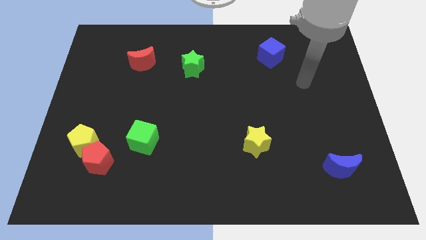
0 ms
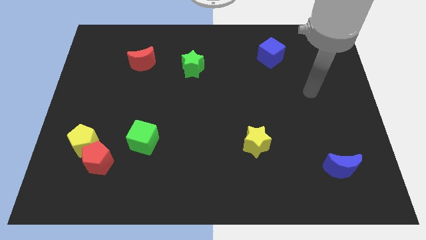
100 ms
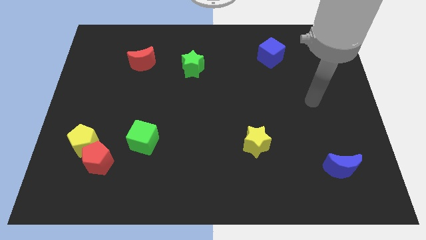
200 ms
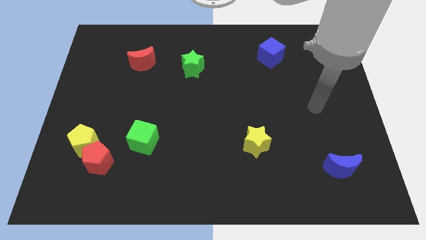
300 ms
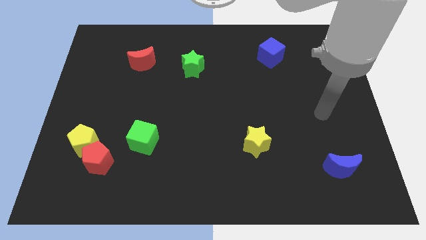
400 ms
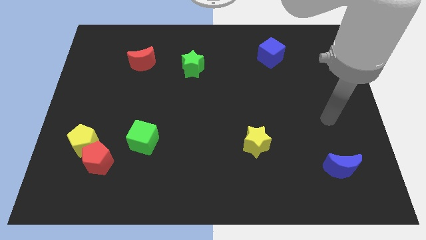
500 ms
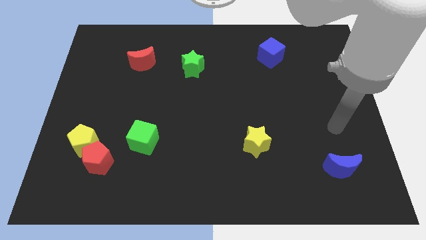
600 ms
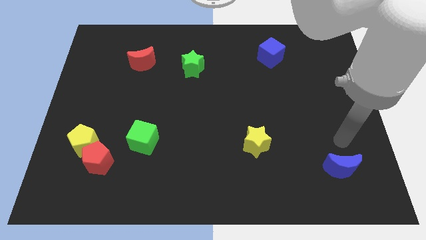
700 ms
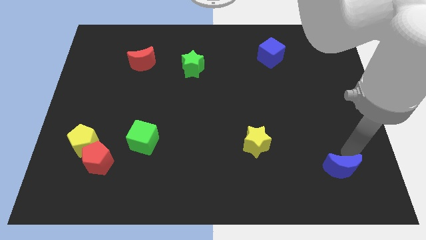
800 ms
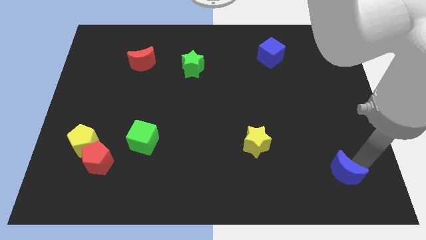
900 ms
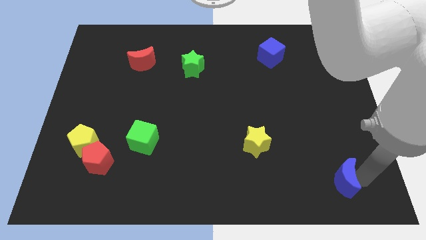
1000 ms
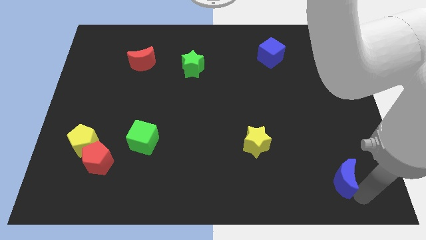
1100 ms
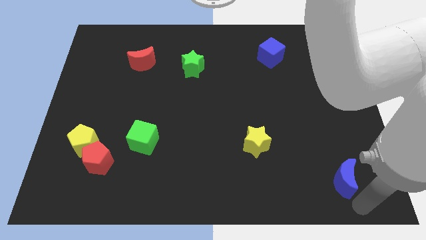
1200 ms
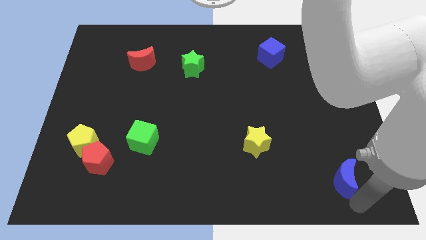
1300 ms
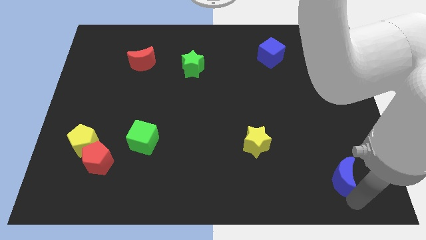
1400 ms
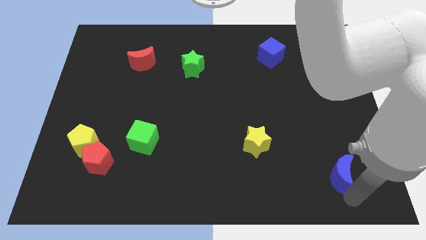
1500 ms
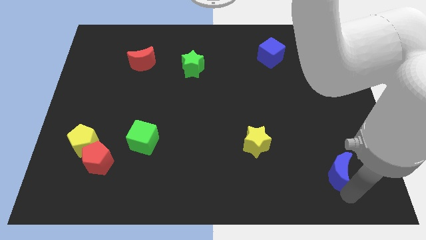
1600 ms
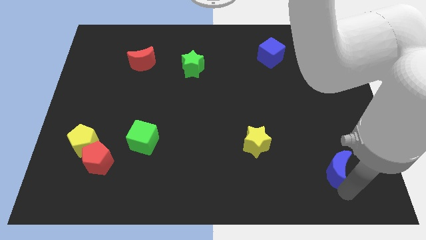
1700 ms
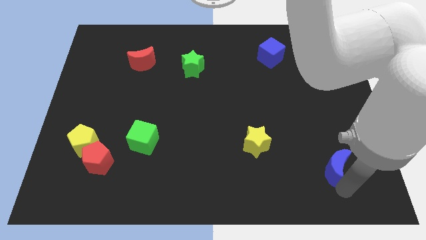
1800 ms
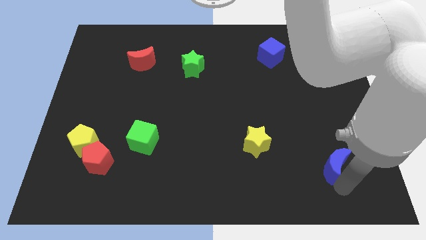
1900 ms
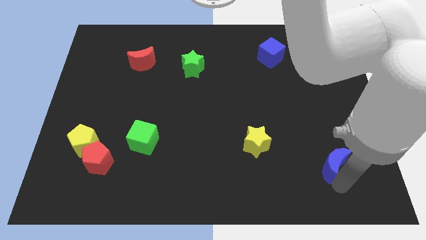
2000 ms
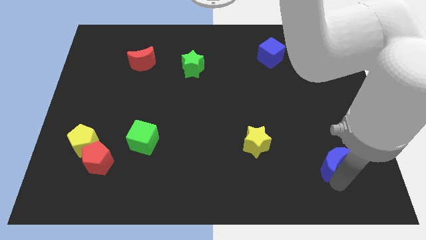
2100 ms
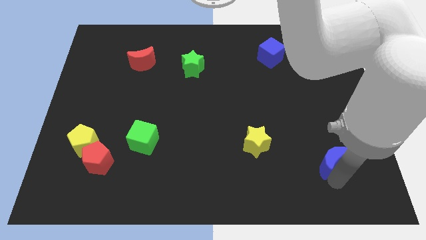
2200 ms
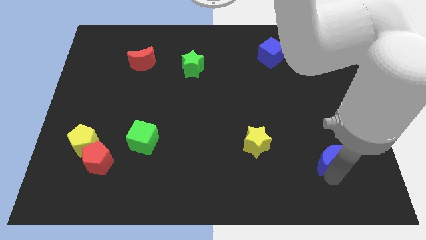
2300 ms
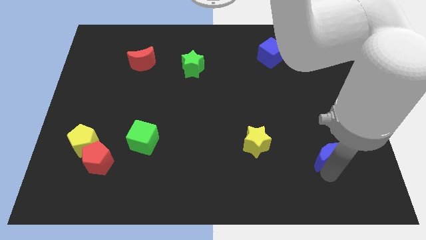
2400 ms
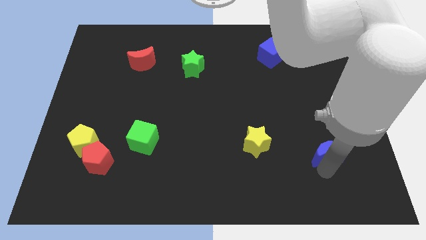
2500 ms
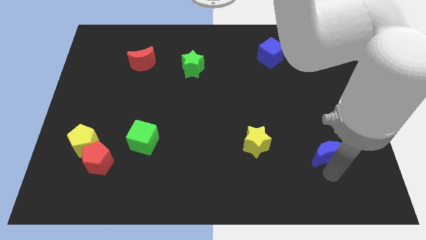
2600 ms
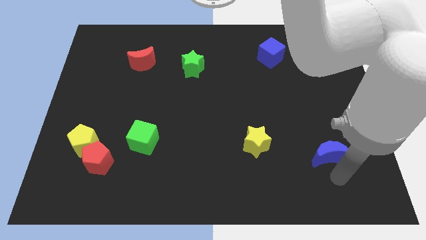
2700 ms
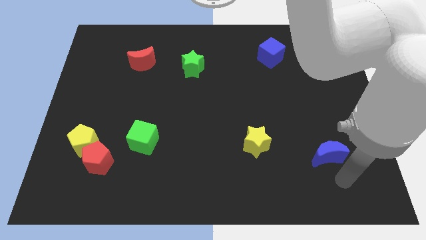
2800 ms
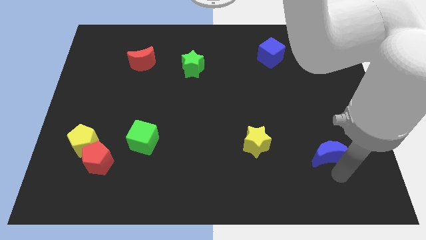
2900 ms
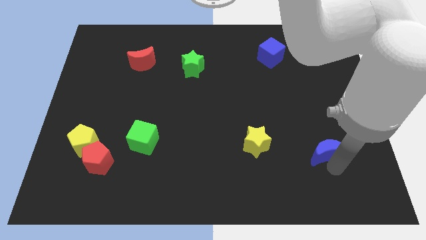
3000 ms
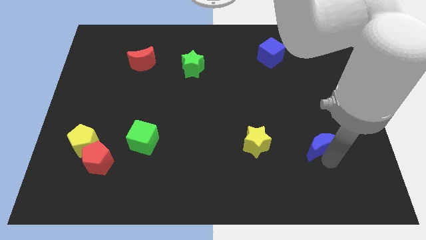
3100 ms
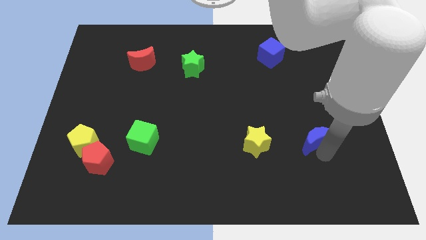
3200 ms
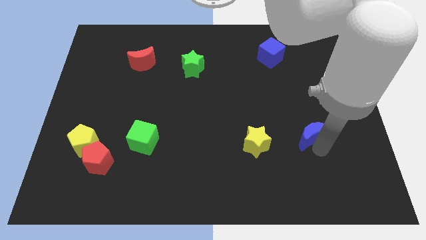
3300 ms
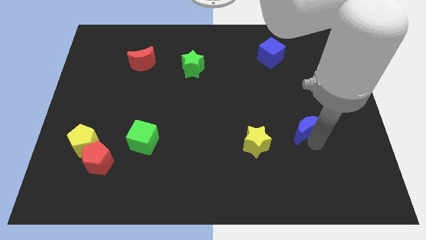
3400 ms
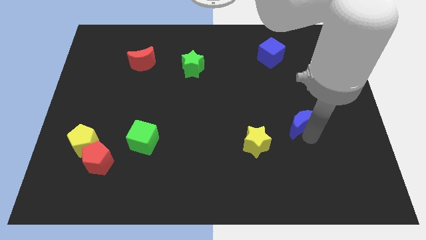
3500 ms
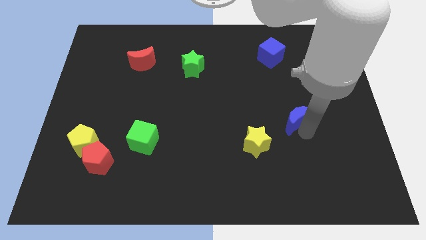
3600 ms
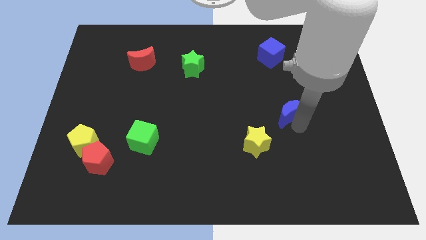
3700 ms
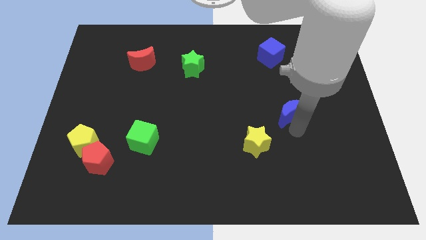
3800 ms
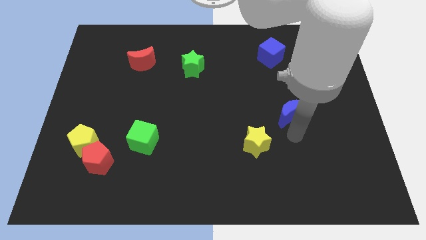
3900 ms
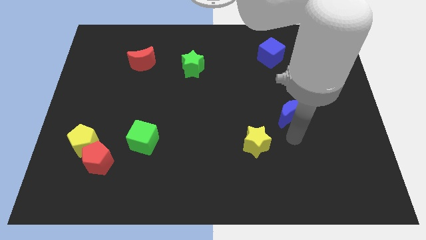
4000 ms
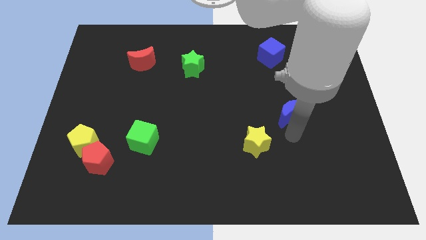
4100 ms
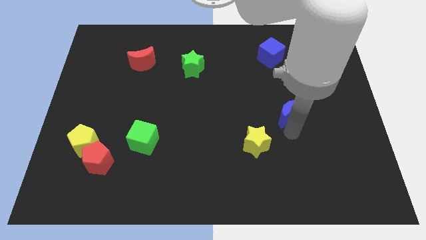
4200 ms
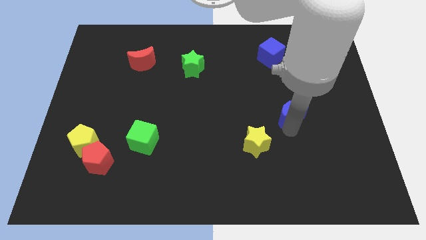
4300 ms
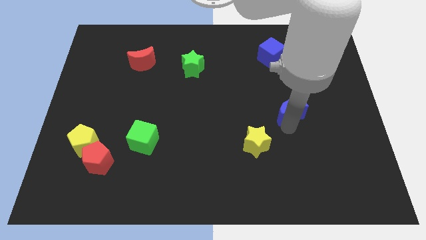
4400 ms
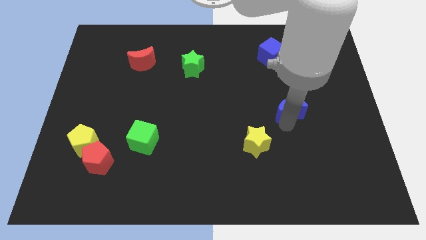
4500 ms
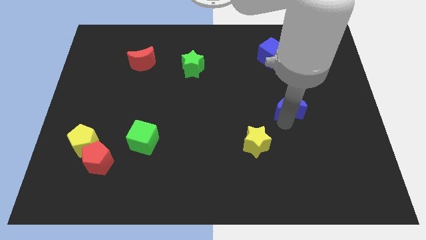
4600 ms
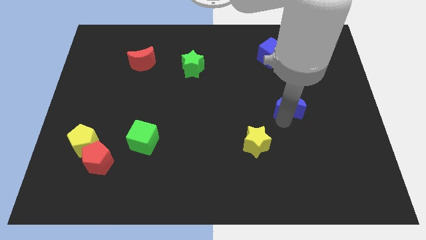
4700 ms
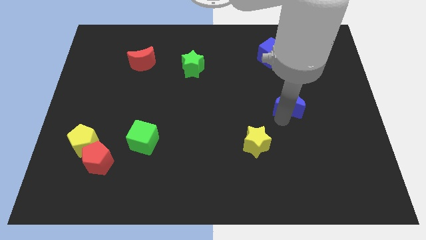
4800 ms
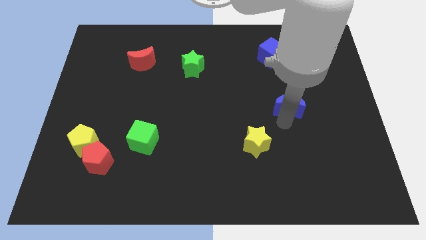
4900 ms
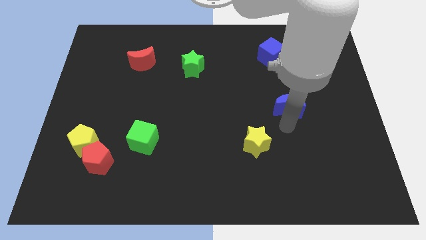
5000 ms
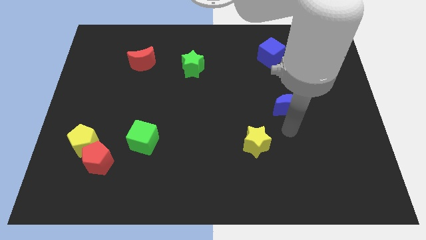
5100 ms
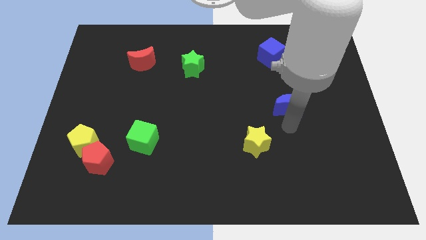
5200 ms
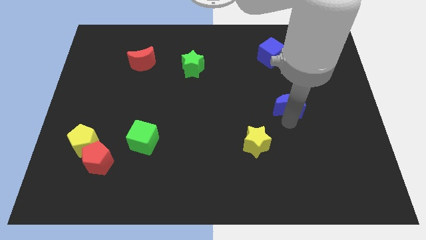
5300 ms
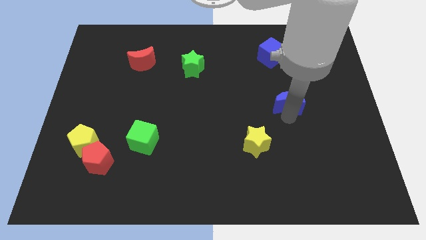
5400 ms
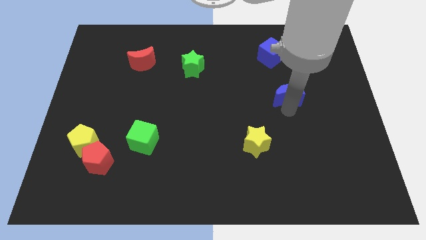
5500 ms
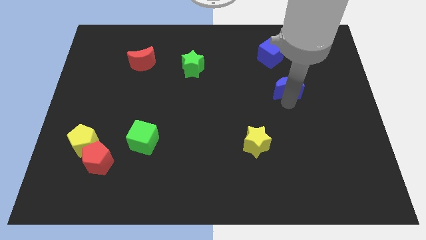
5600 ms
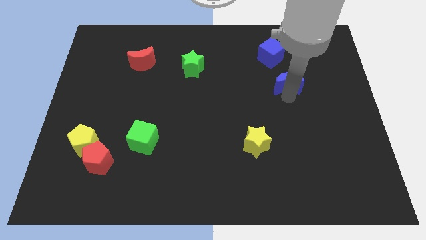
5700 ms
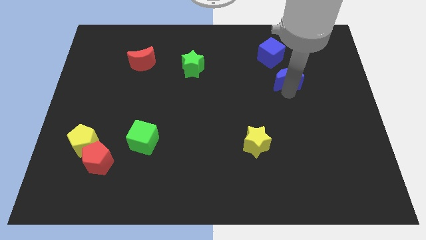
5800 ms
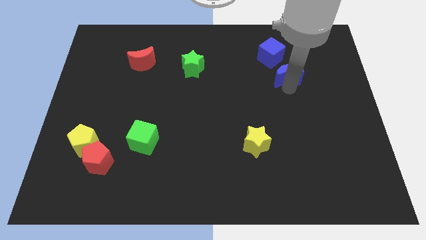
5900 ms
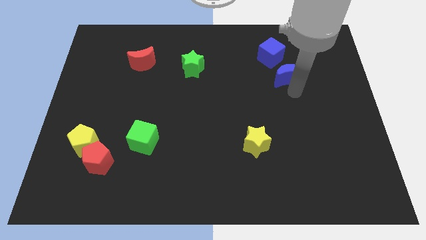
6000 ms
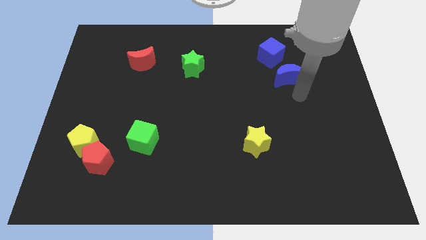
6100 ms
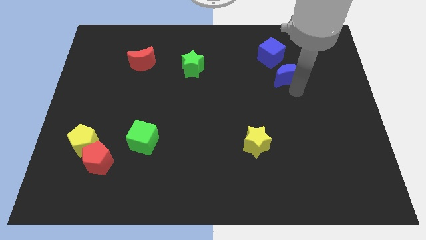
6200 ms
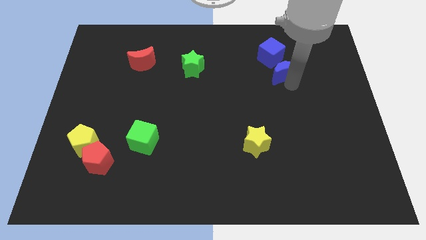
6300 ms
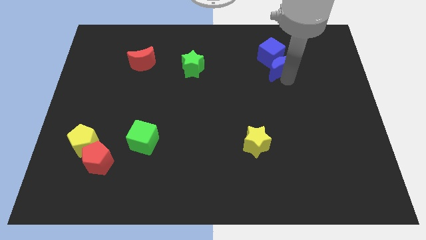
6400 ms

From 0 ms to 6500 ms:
slide the blue moon next to the blue cube
